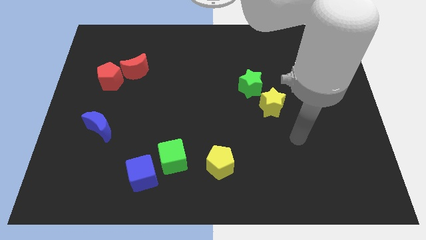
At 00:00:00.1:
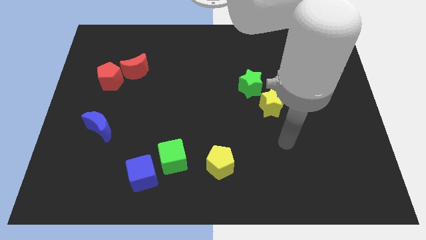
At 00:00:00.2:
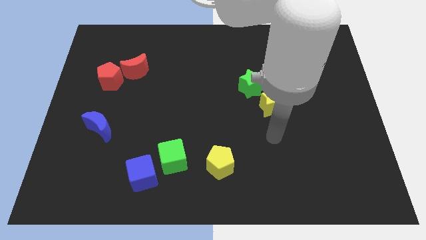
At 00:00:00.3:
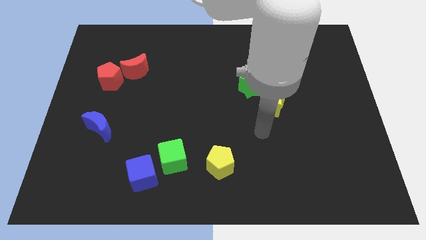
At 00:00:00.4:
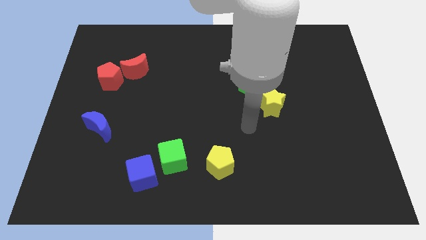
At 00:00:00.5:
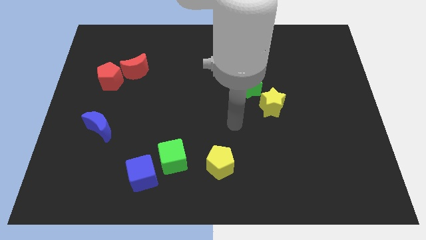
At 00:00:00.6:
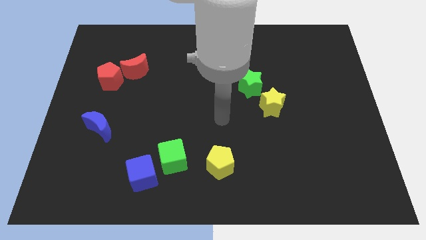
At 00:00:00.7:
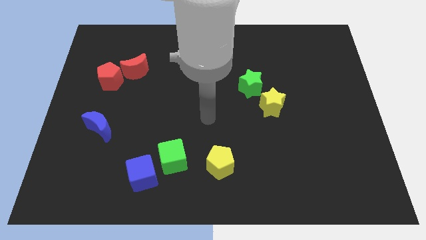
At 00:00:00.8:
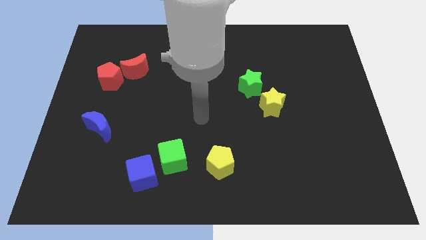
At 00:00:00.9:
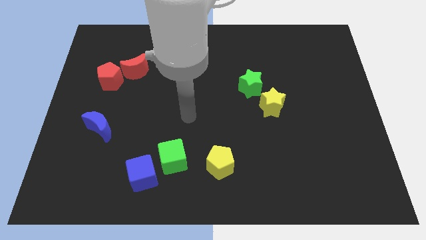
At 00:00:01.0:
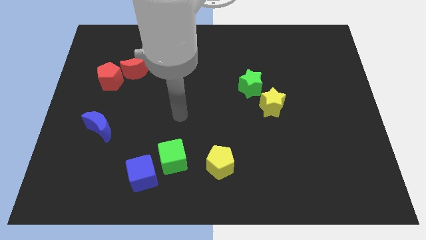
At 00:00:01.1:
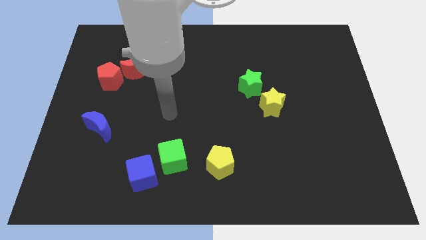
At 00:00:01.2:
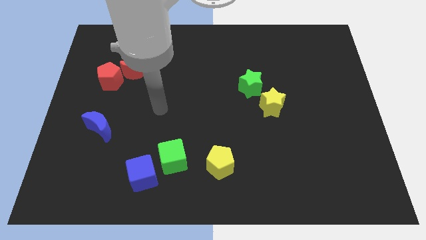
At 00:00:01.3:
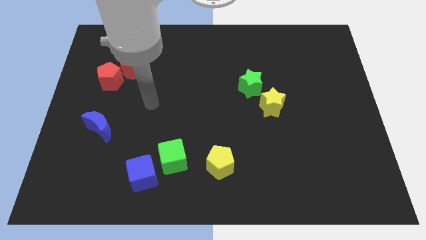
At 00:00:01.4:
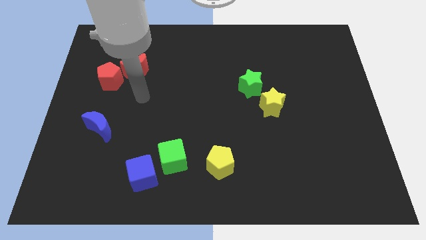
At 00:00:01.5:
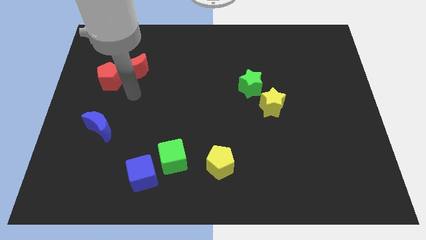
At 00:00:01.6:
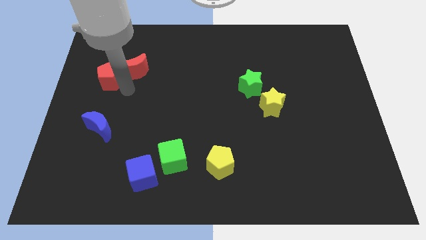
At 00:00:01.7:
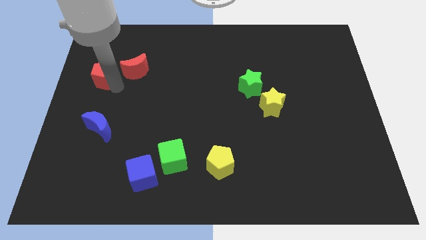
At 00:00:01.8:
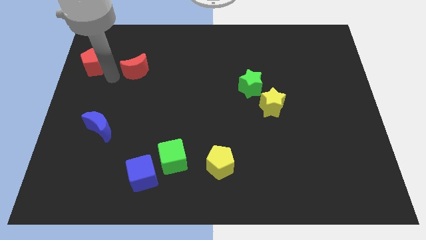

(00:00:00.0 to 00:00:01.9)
move the red moon away from the red pentagon

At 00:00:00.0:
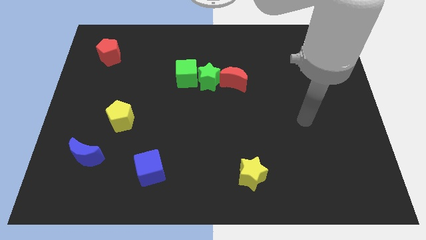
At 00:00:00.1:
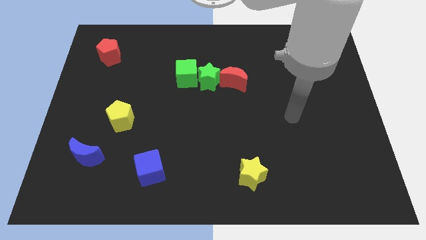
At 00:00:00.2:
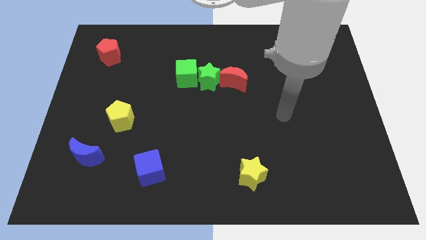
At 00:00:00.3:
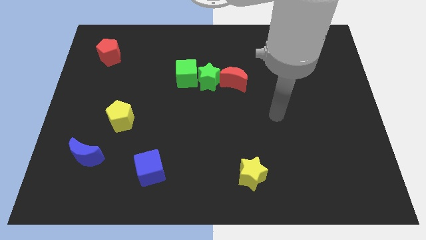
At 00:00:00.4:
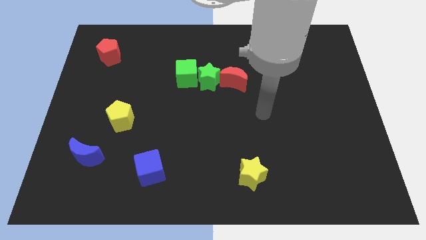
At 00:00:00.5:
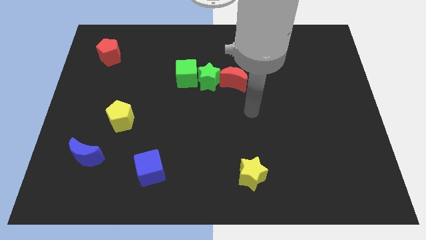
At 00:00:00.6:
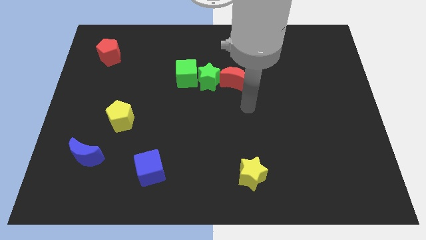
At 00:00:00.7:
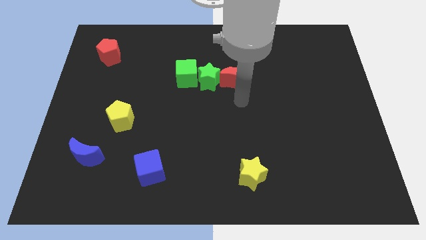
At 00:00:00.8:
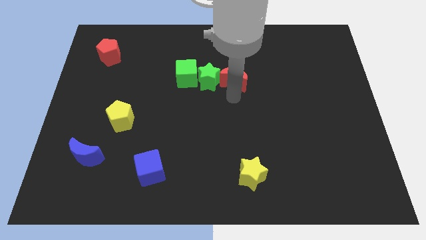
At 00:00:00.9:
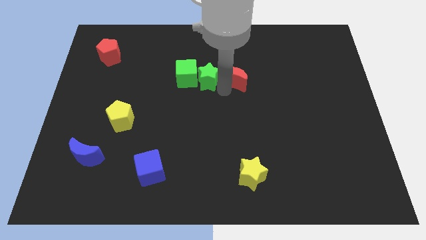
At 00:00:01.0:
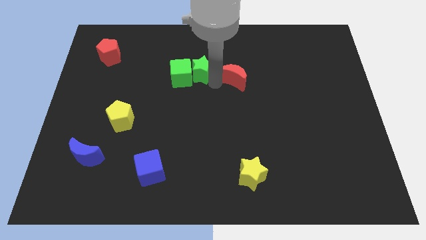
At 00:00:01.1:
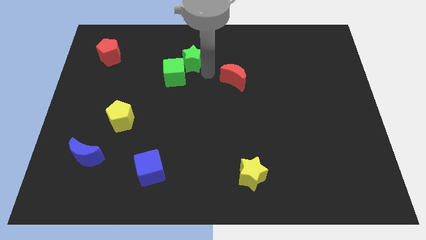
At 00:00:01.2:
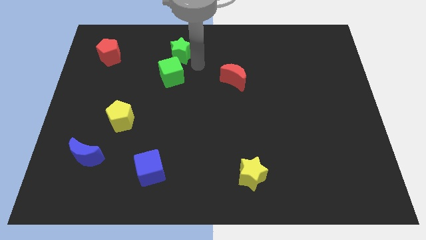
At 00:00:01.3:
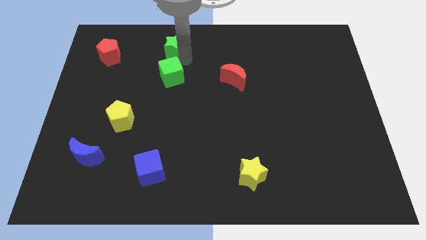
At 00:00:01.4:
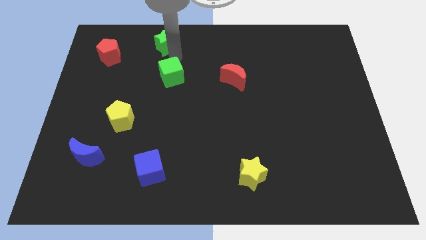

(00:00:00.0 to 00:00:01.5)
pull the green cube apart from the green star

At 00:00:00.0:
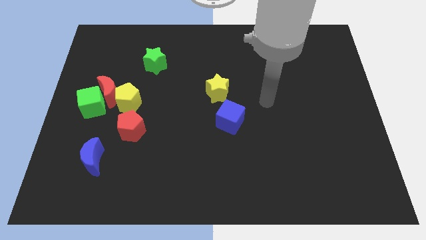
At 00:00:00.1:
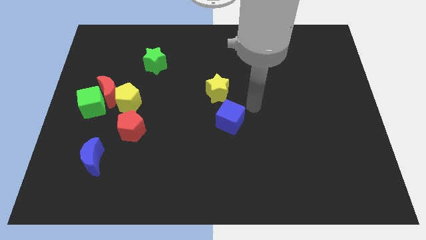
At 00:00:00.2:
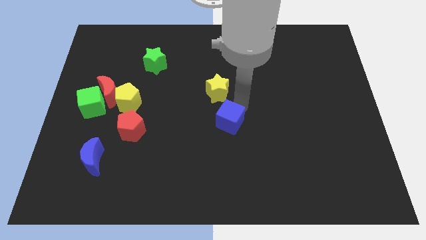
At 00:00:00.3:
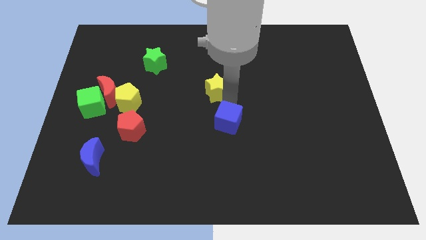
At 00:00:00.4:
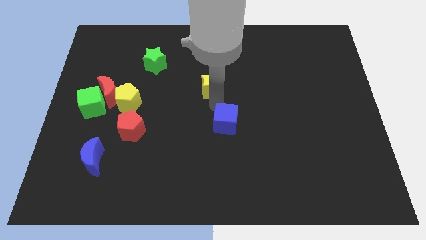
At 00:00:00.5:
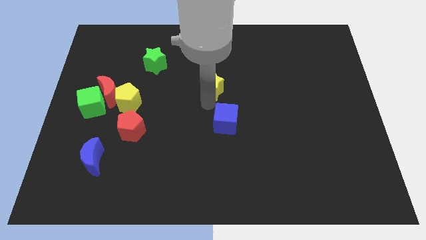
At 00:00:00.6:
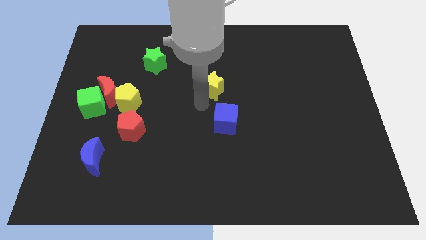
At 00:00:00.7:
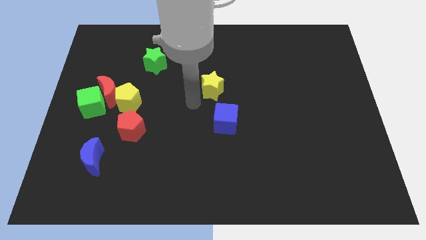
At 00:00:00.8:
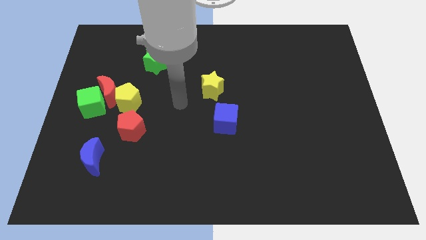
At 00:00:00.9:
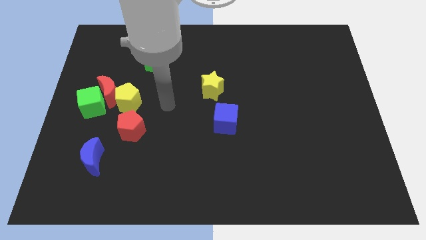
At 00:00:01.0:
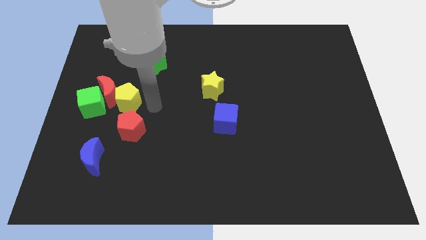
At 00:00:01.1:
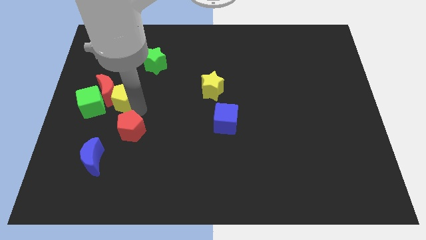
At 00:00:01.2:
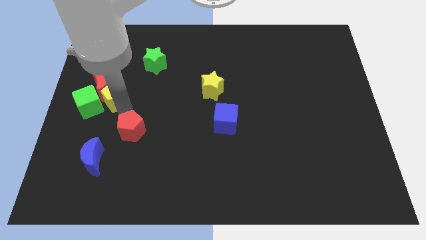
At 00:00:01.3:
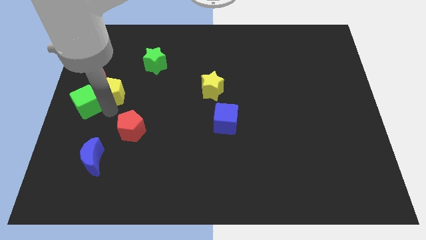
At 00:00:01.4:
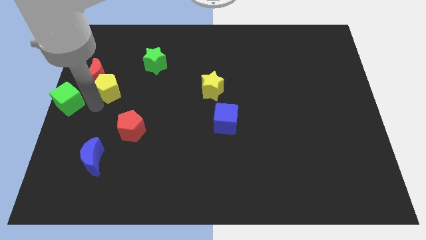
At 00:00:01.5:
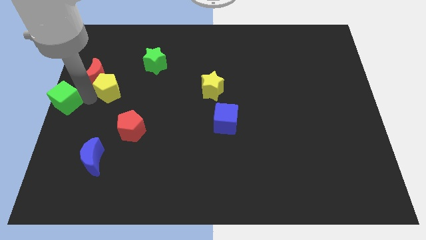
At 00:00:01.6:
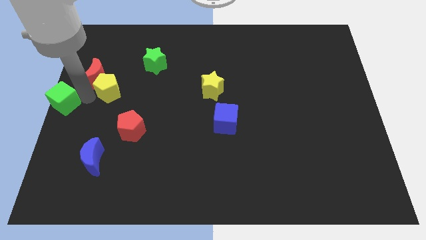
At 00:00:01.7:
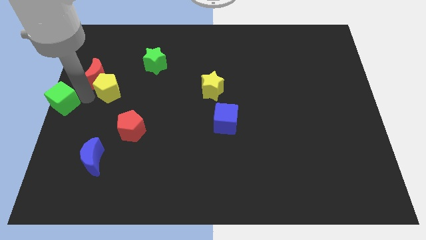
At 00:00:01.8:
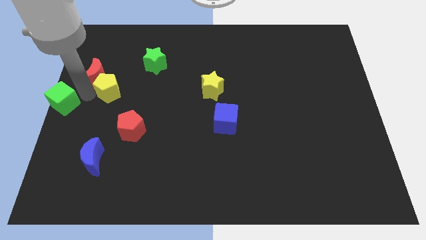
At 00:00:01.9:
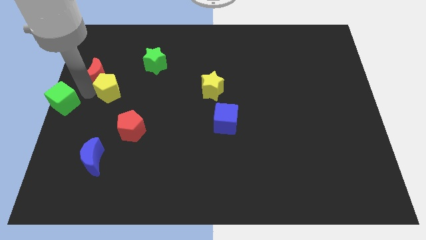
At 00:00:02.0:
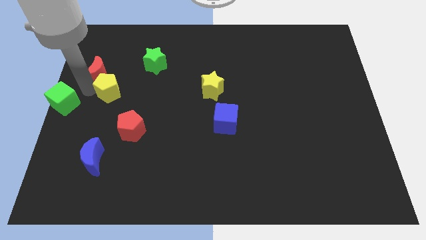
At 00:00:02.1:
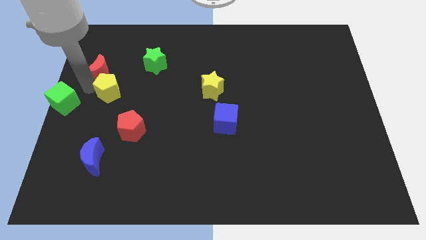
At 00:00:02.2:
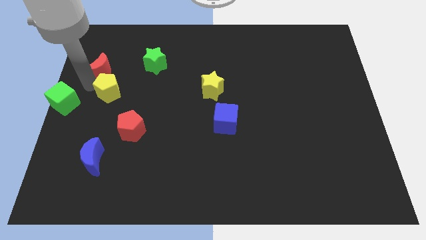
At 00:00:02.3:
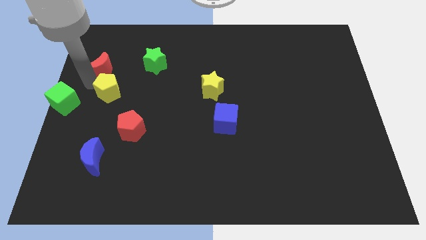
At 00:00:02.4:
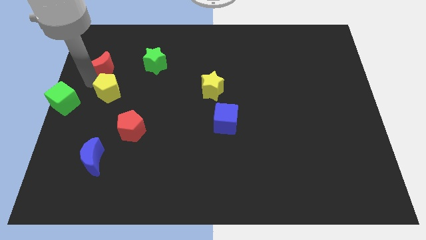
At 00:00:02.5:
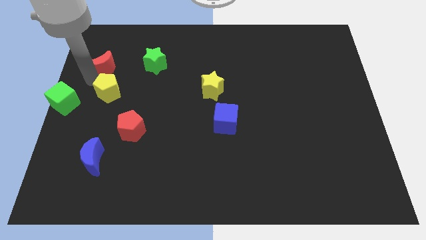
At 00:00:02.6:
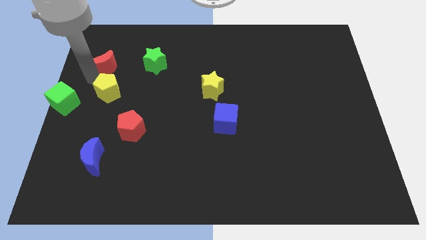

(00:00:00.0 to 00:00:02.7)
pull the red moon apart from the green cube and yellow pentagon

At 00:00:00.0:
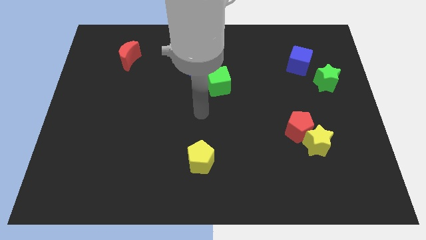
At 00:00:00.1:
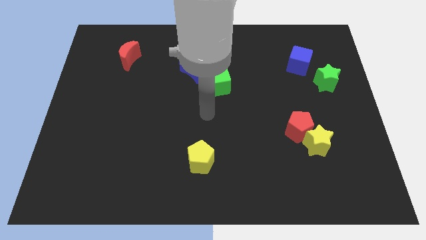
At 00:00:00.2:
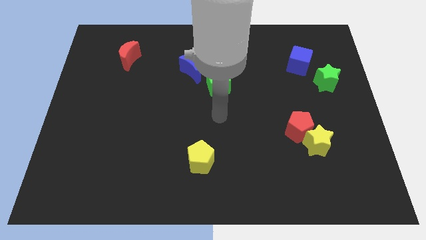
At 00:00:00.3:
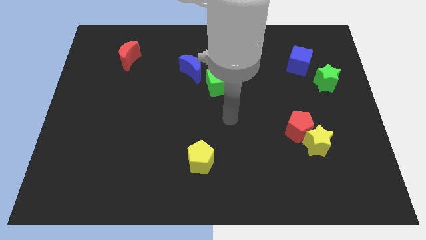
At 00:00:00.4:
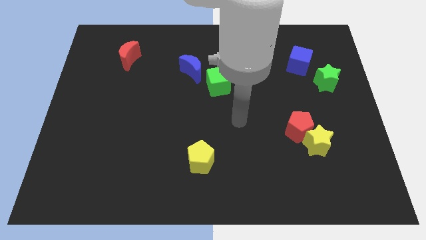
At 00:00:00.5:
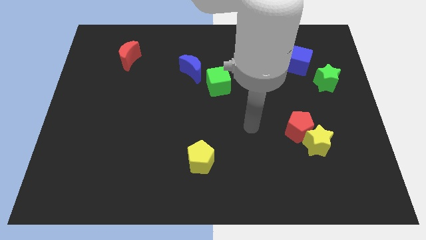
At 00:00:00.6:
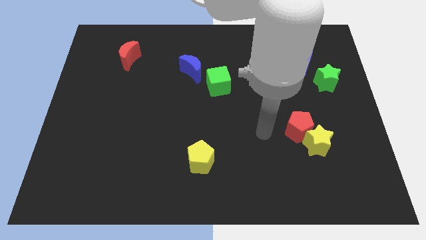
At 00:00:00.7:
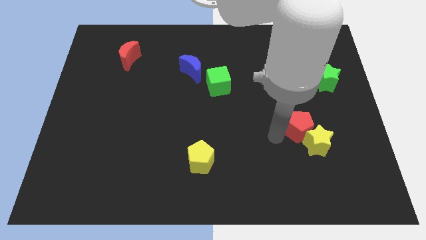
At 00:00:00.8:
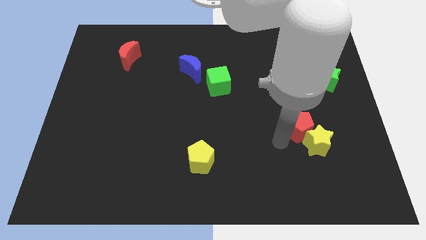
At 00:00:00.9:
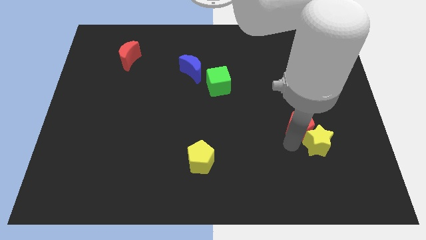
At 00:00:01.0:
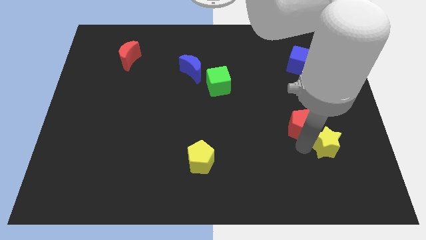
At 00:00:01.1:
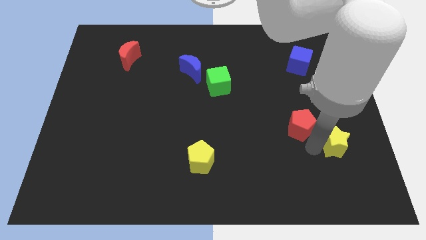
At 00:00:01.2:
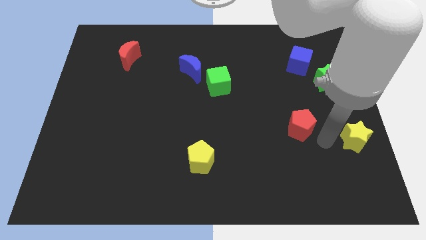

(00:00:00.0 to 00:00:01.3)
pull the red pentagon apart from the yellow star

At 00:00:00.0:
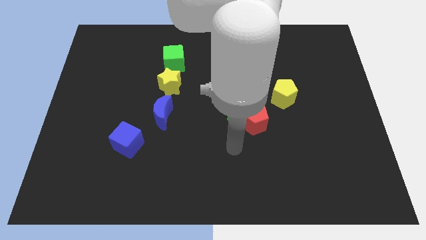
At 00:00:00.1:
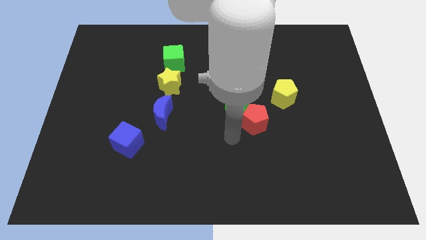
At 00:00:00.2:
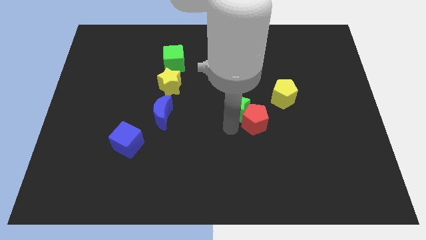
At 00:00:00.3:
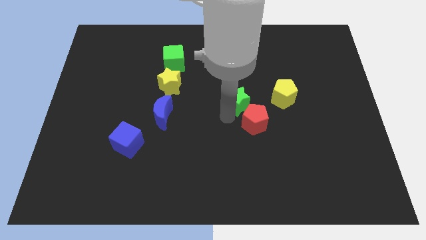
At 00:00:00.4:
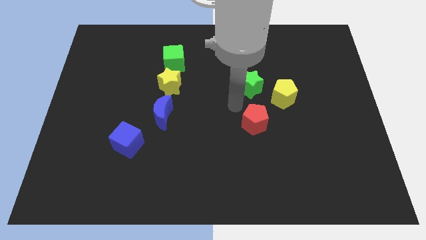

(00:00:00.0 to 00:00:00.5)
separate the red pentagon from the green star

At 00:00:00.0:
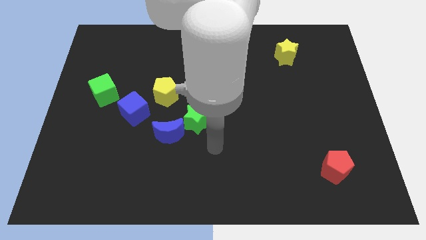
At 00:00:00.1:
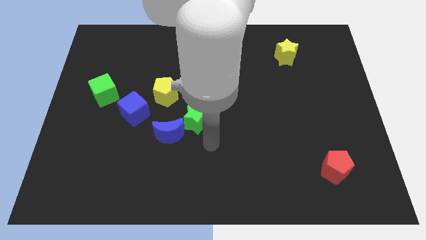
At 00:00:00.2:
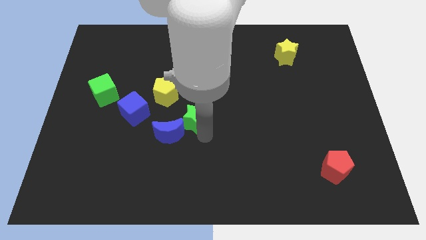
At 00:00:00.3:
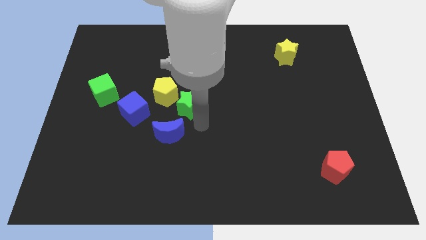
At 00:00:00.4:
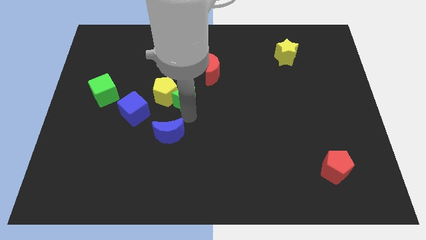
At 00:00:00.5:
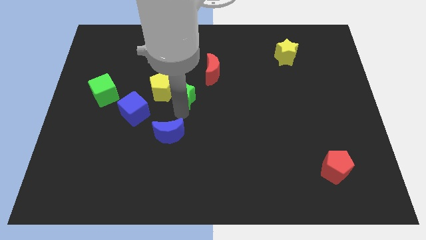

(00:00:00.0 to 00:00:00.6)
pull the blue moon apart from the green star

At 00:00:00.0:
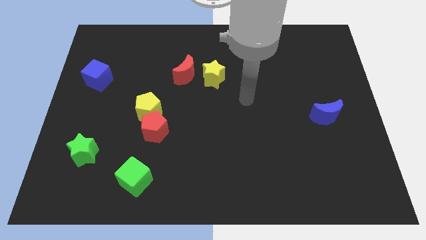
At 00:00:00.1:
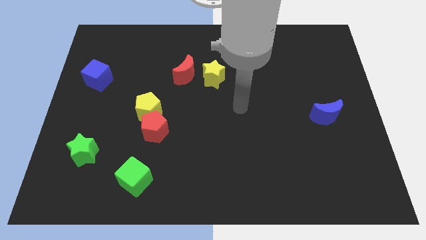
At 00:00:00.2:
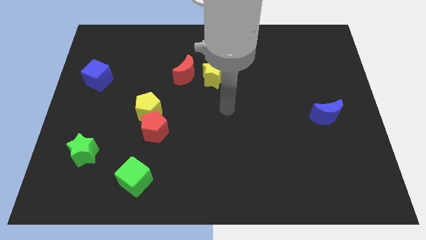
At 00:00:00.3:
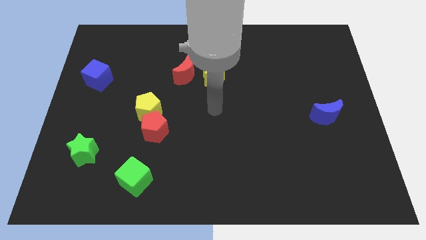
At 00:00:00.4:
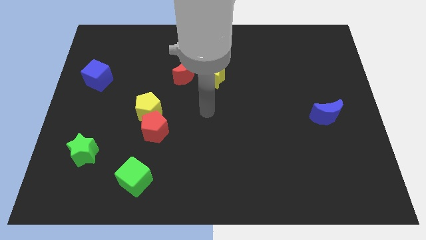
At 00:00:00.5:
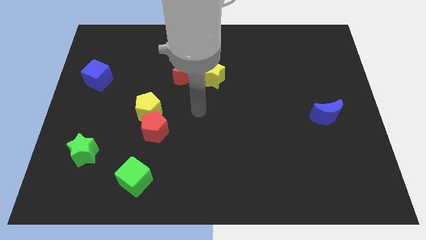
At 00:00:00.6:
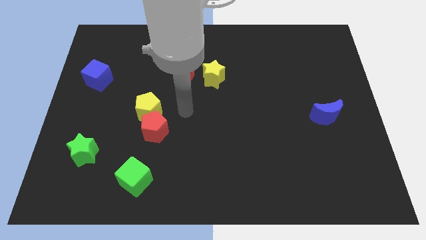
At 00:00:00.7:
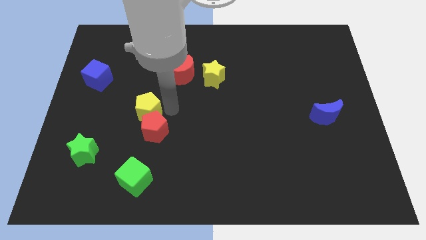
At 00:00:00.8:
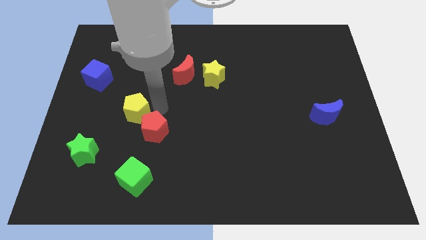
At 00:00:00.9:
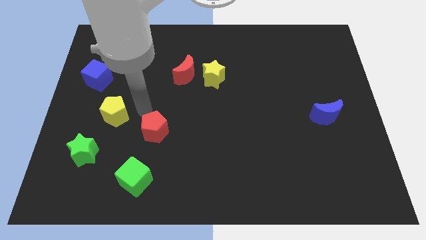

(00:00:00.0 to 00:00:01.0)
move the red pentagon away from the yellow pentagon
